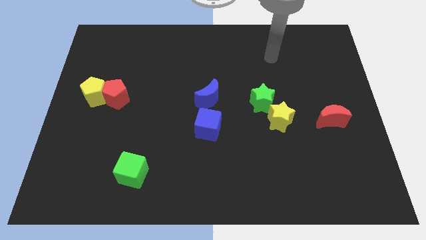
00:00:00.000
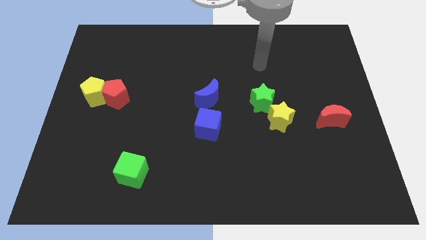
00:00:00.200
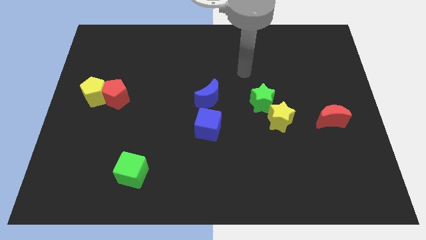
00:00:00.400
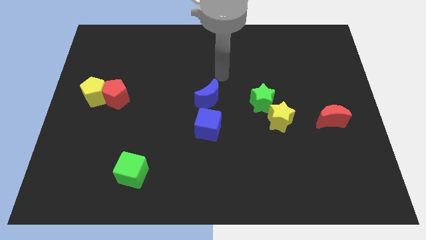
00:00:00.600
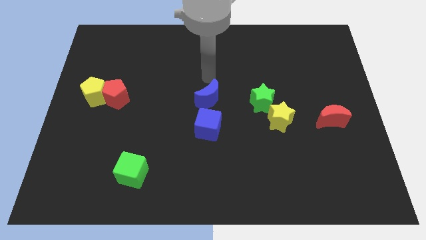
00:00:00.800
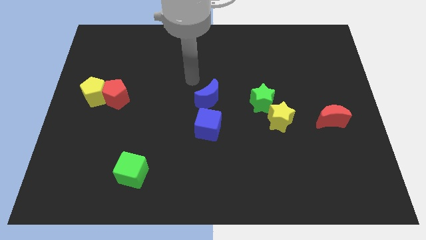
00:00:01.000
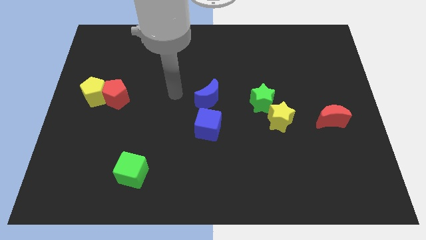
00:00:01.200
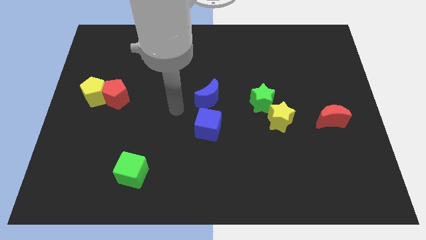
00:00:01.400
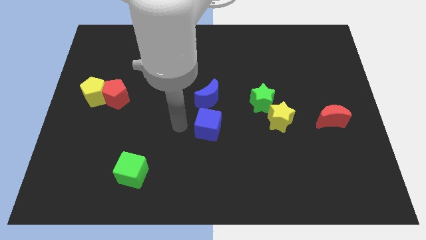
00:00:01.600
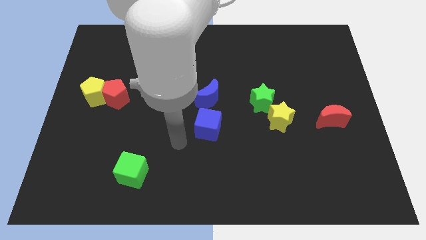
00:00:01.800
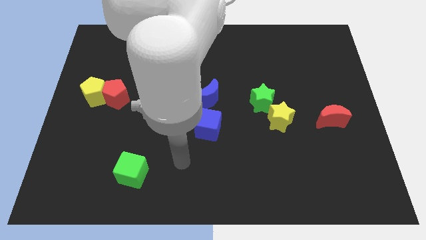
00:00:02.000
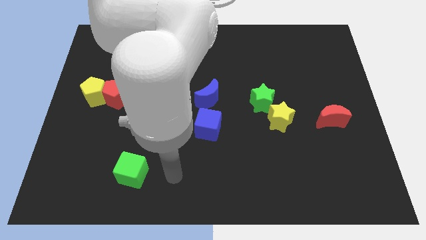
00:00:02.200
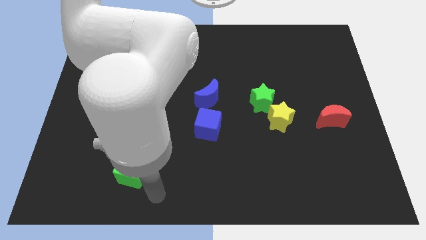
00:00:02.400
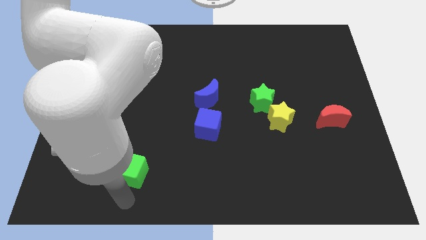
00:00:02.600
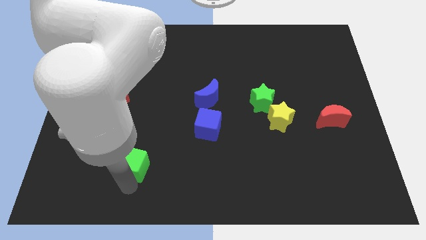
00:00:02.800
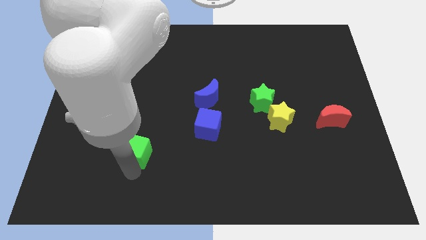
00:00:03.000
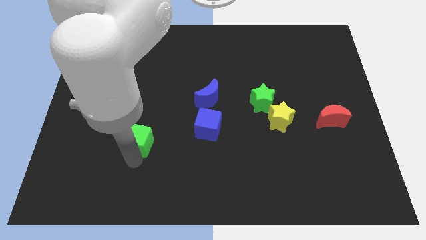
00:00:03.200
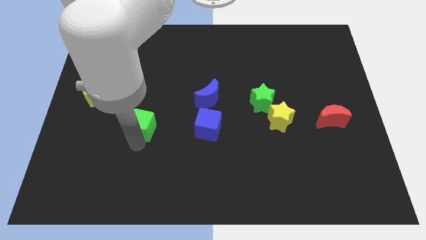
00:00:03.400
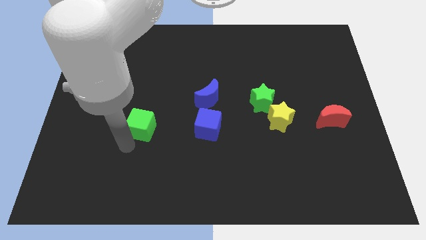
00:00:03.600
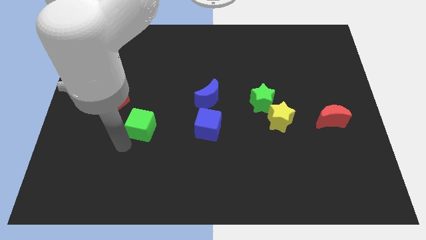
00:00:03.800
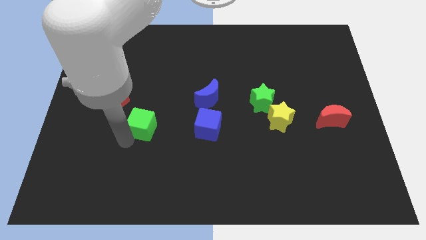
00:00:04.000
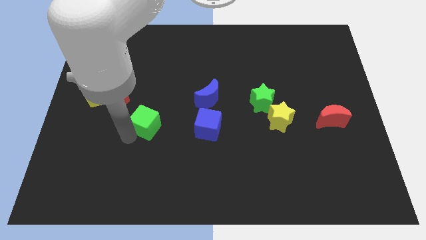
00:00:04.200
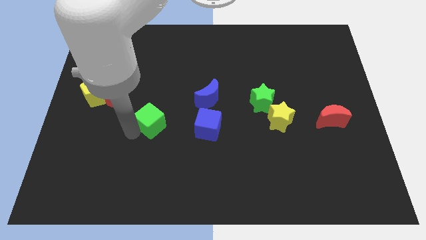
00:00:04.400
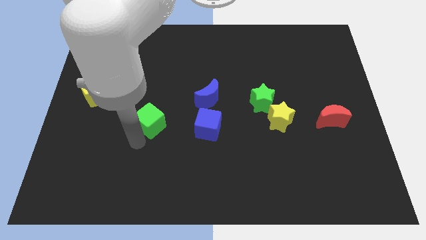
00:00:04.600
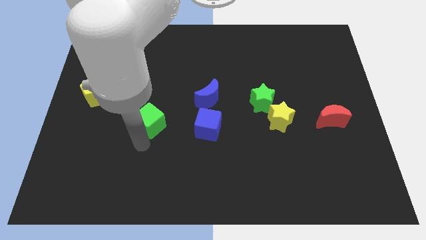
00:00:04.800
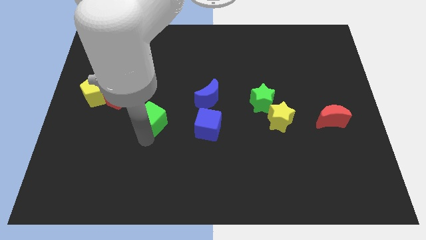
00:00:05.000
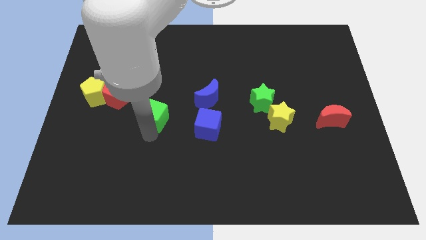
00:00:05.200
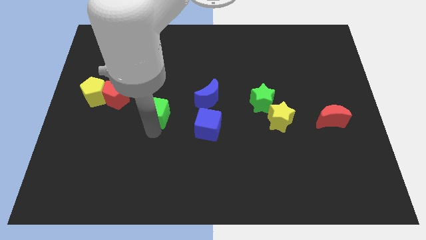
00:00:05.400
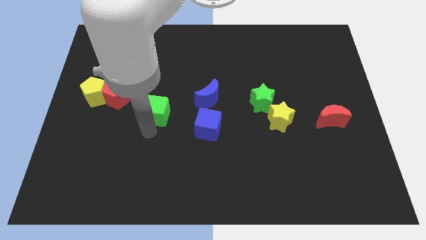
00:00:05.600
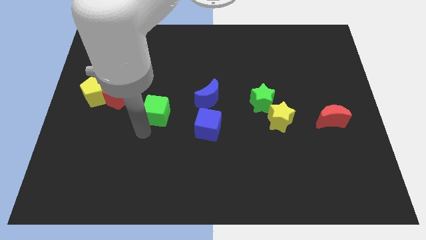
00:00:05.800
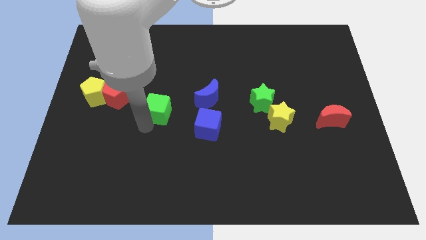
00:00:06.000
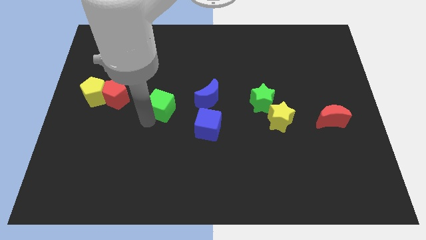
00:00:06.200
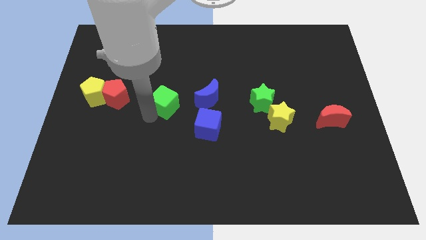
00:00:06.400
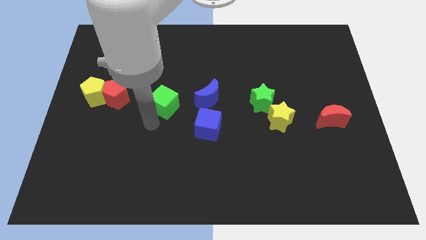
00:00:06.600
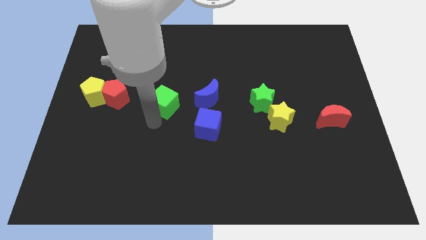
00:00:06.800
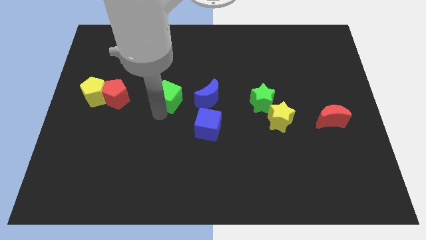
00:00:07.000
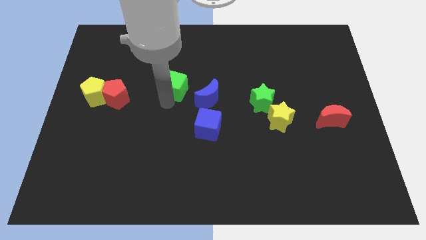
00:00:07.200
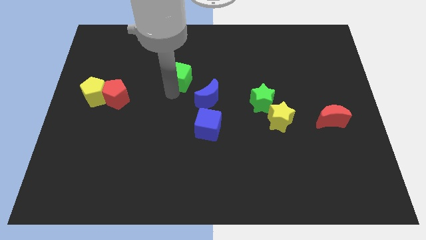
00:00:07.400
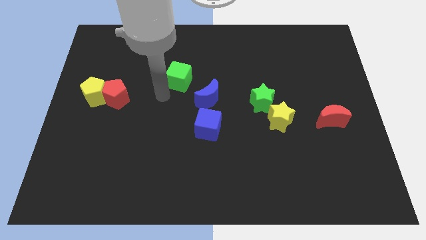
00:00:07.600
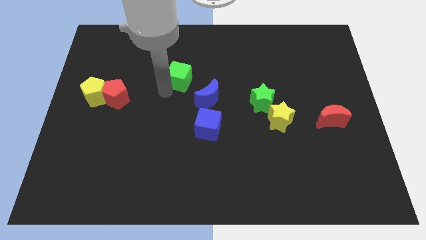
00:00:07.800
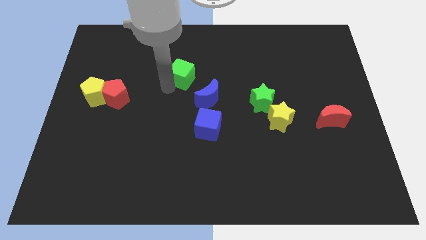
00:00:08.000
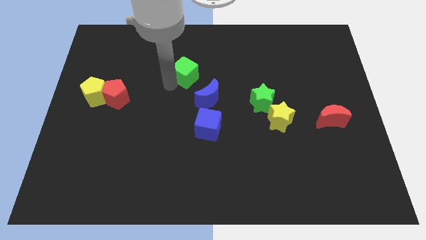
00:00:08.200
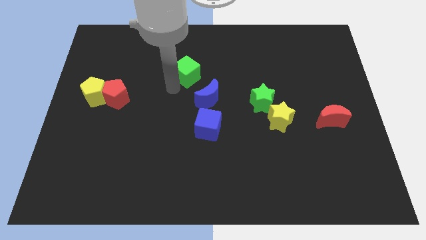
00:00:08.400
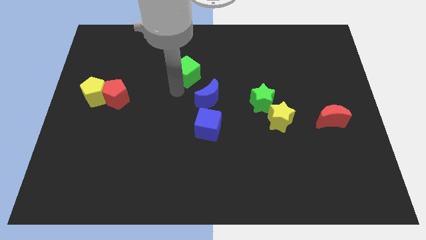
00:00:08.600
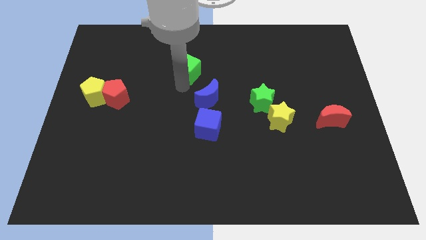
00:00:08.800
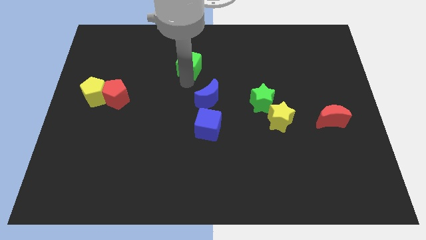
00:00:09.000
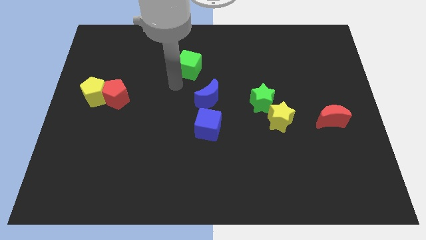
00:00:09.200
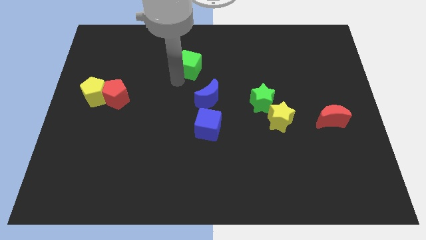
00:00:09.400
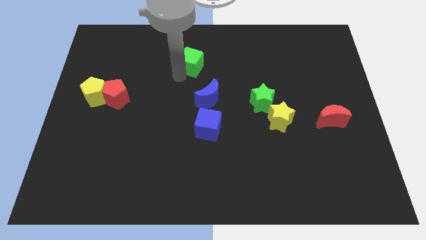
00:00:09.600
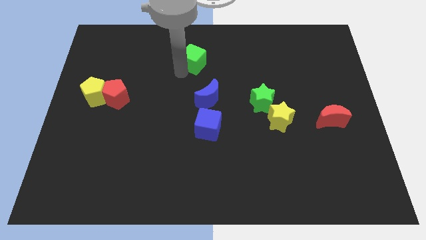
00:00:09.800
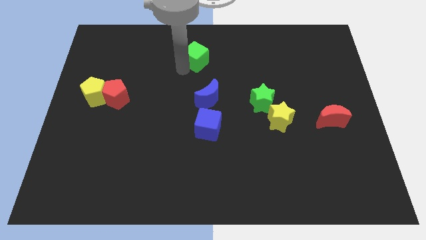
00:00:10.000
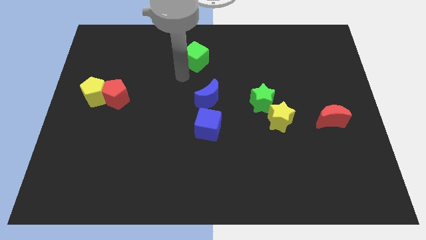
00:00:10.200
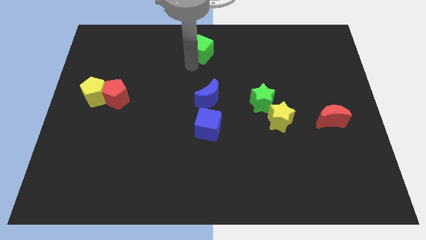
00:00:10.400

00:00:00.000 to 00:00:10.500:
push the green cube to the towards your base

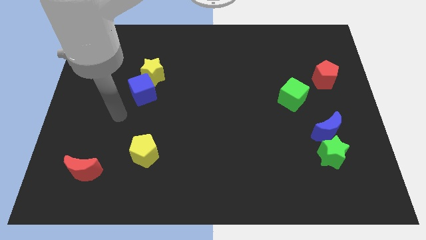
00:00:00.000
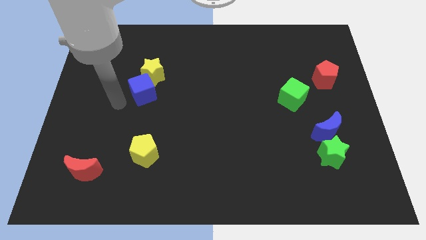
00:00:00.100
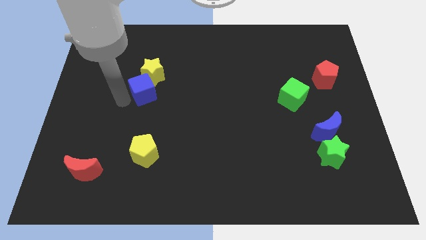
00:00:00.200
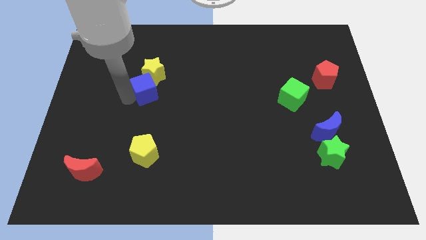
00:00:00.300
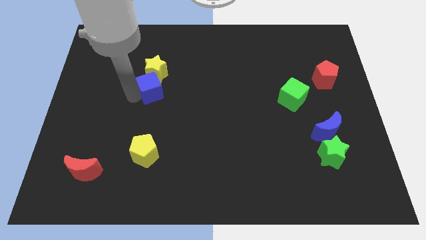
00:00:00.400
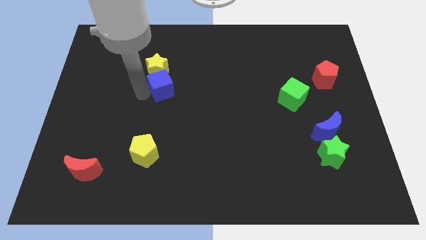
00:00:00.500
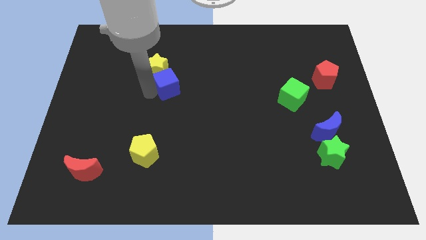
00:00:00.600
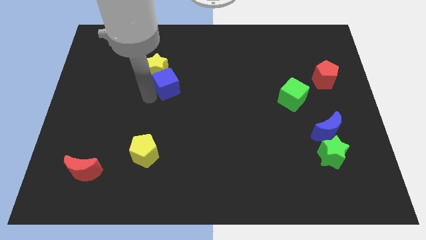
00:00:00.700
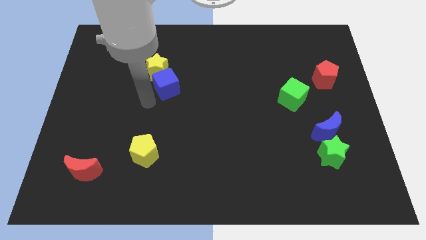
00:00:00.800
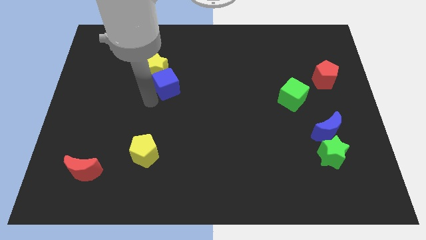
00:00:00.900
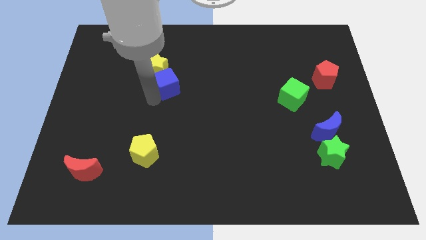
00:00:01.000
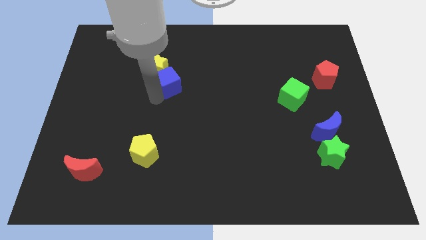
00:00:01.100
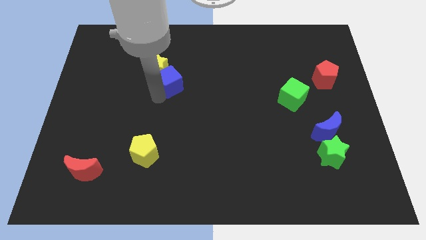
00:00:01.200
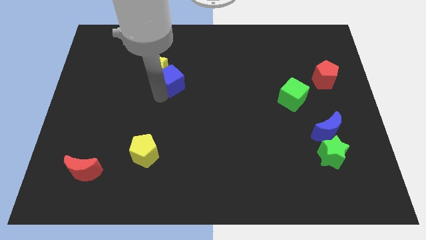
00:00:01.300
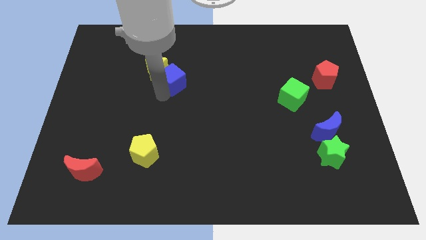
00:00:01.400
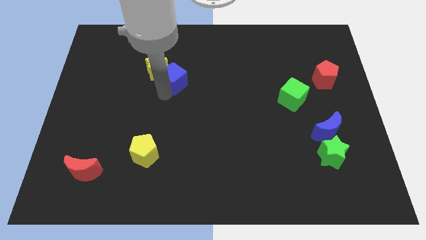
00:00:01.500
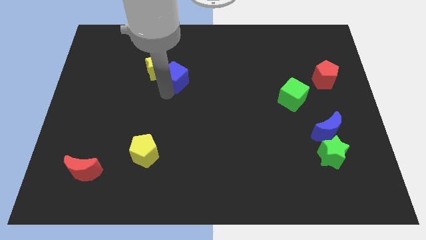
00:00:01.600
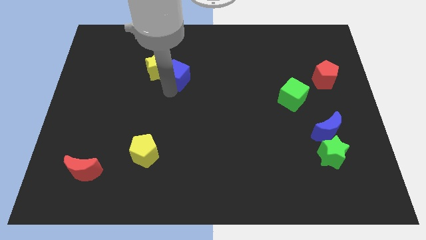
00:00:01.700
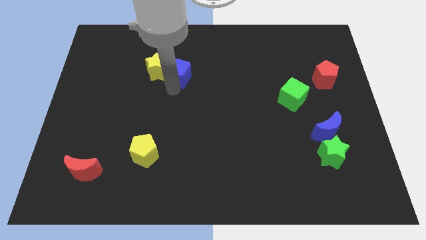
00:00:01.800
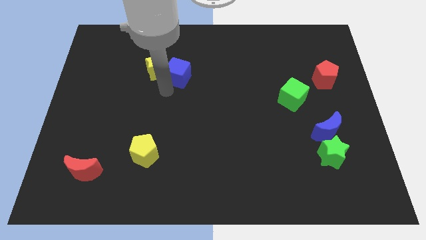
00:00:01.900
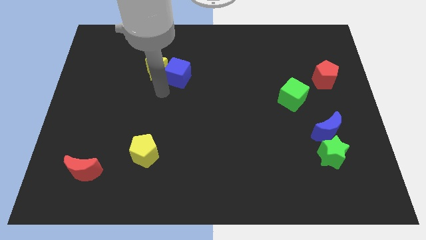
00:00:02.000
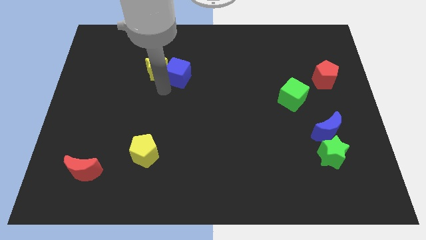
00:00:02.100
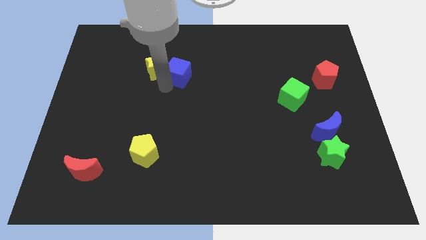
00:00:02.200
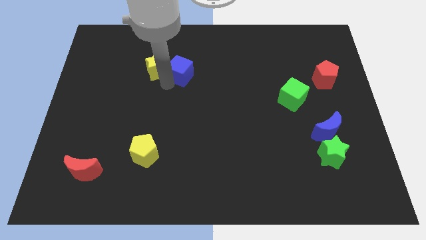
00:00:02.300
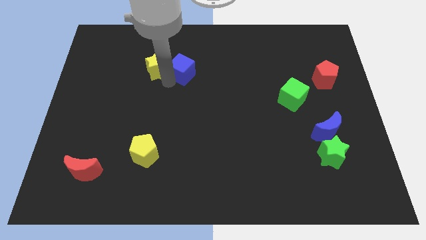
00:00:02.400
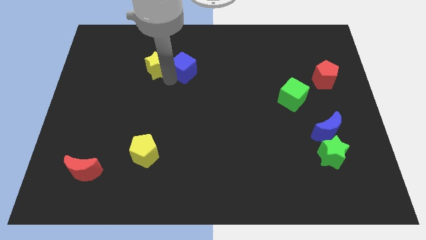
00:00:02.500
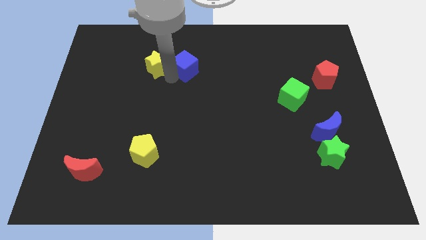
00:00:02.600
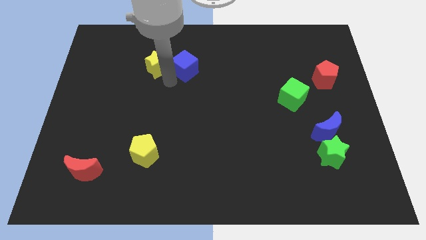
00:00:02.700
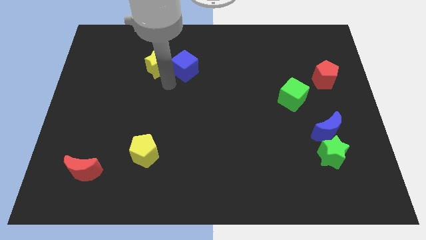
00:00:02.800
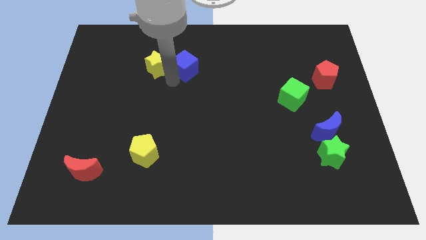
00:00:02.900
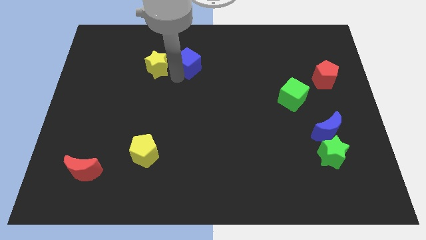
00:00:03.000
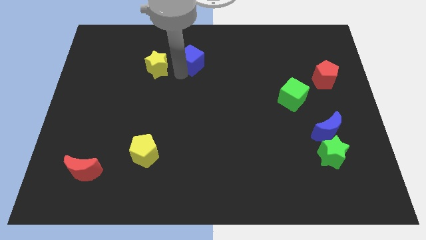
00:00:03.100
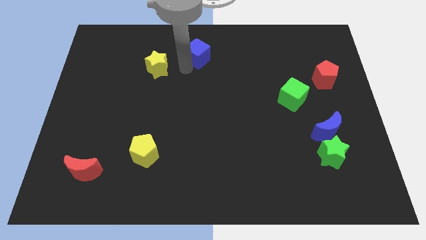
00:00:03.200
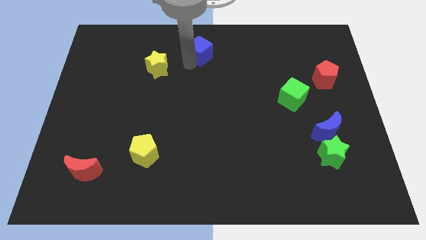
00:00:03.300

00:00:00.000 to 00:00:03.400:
move the blue cube to the top side
